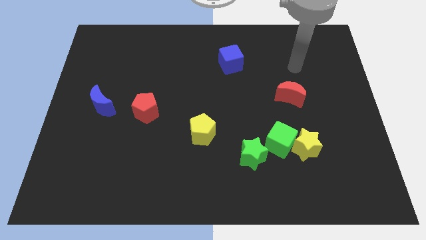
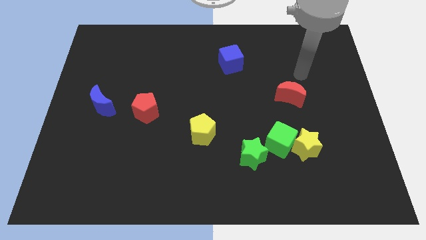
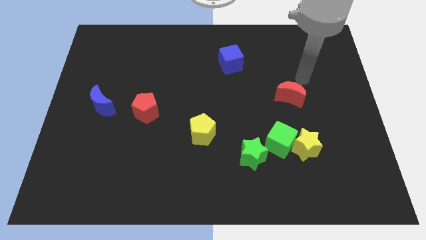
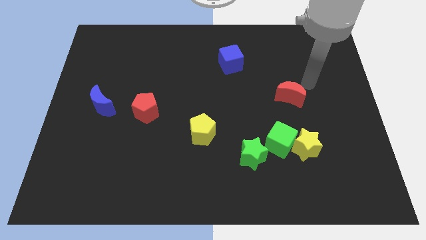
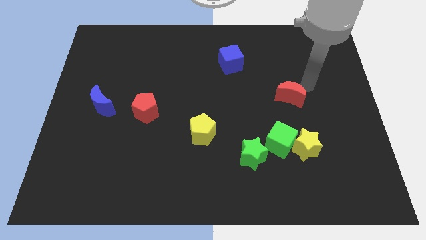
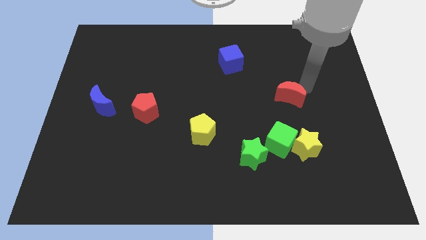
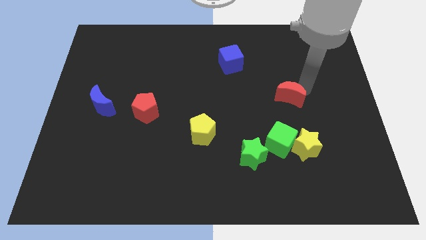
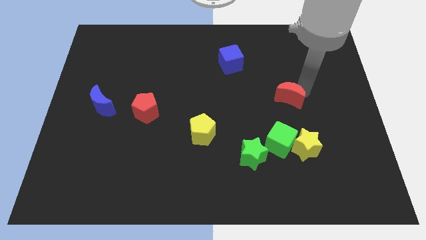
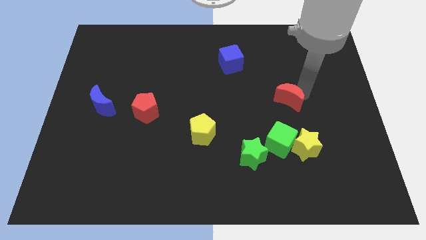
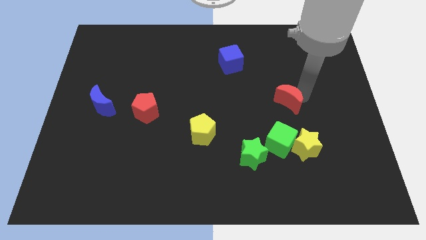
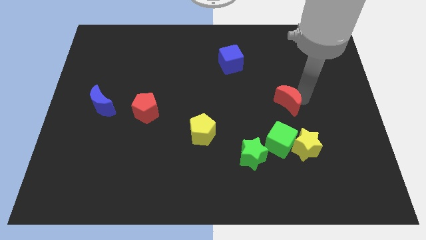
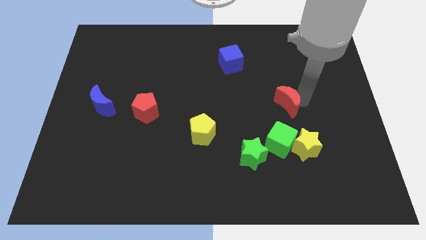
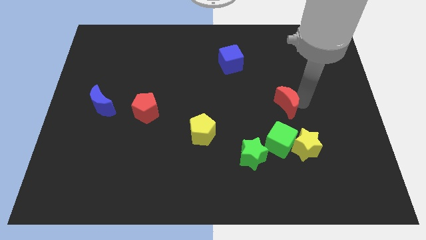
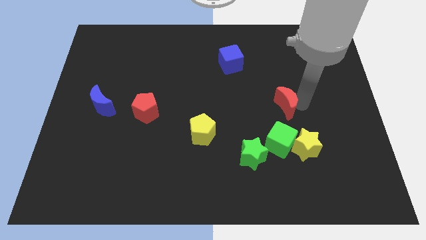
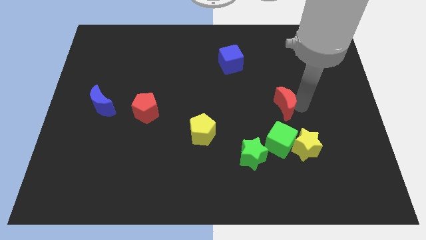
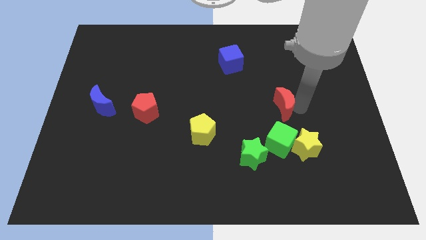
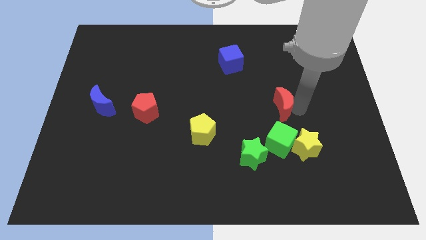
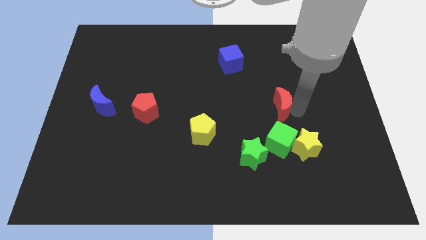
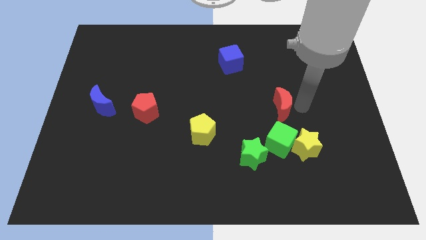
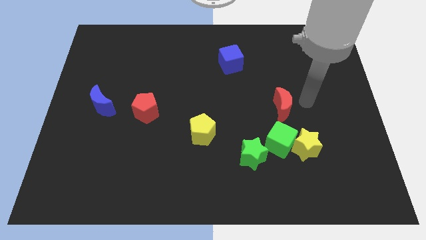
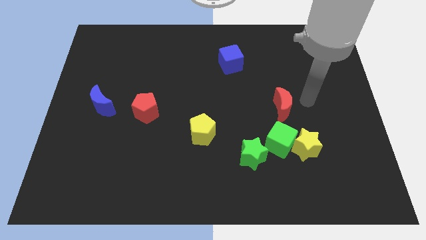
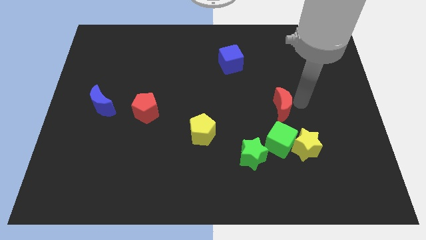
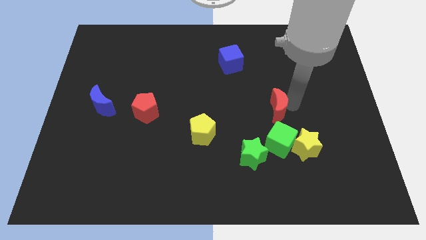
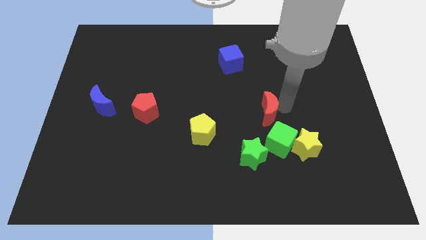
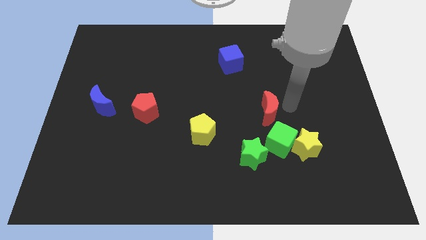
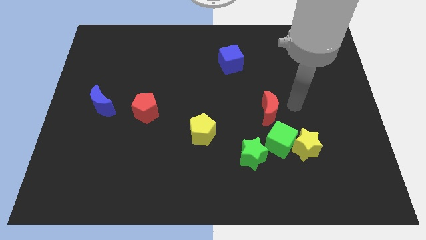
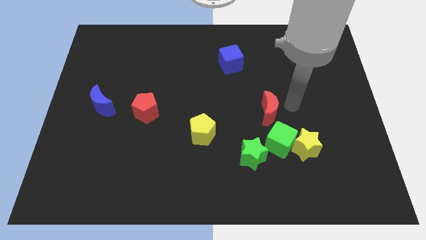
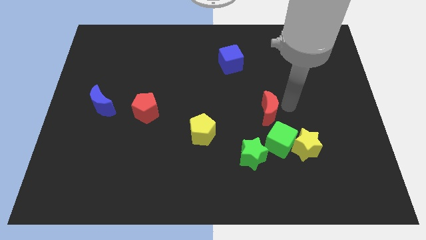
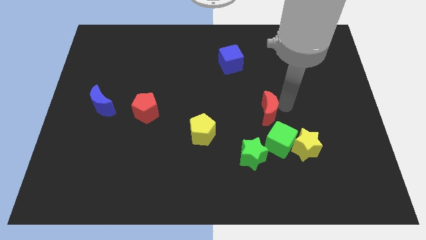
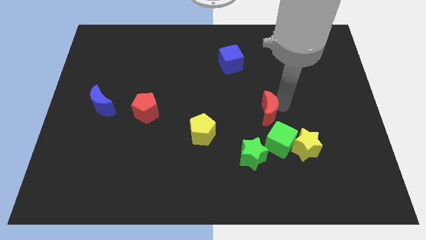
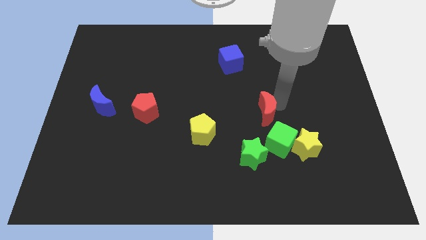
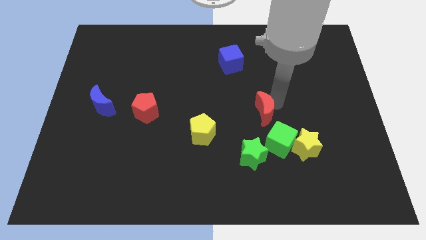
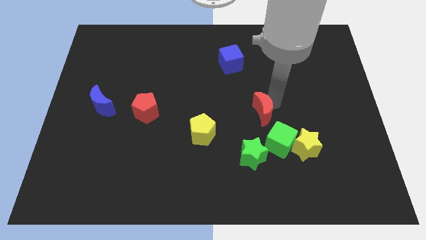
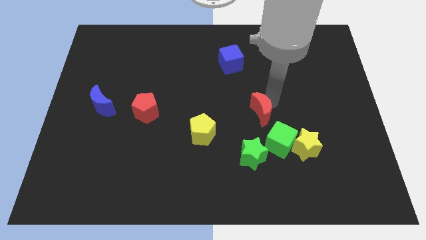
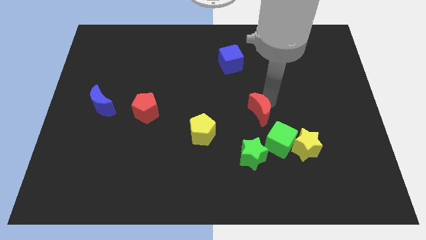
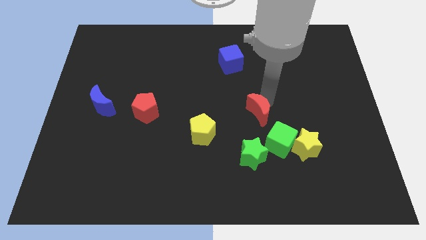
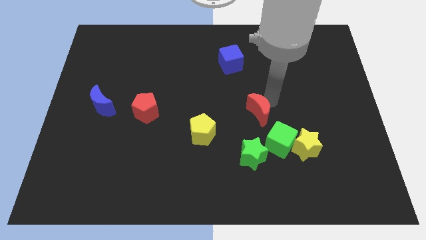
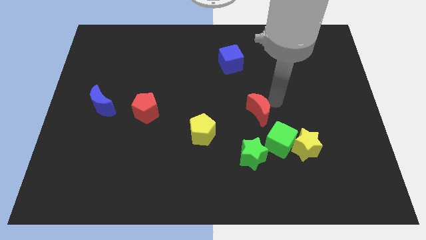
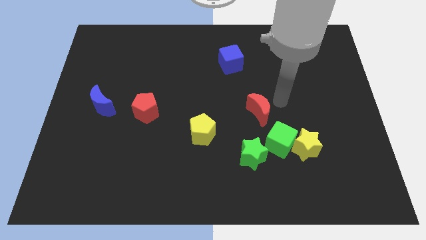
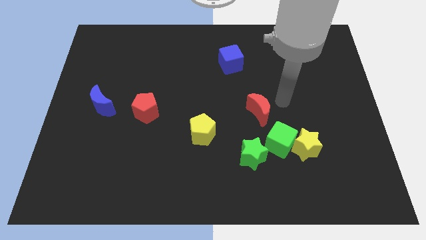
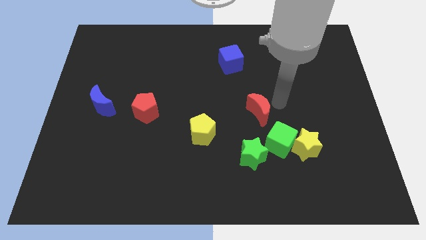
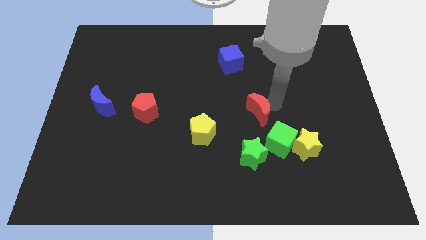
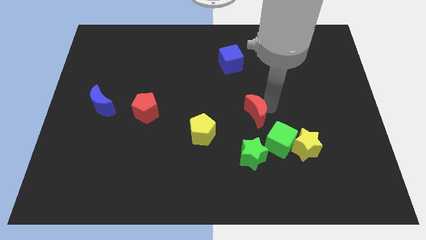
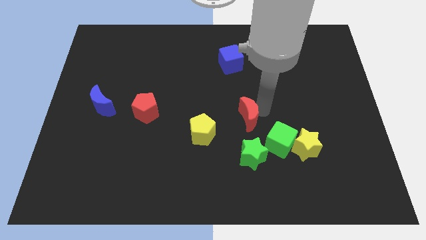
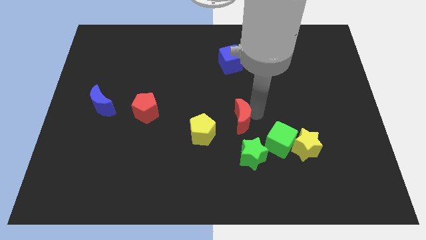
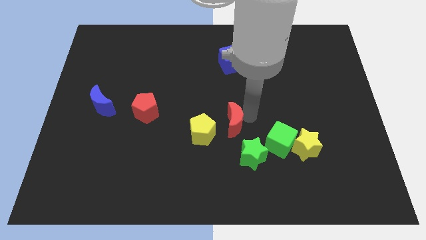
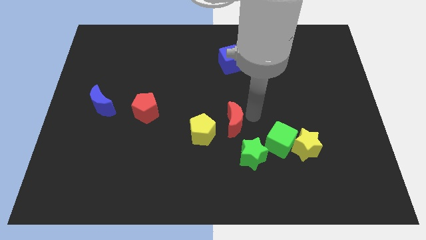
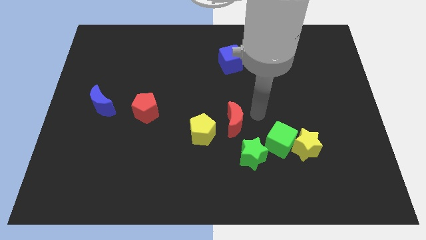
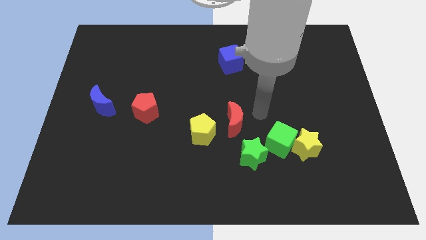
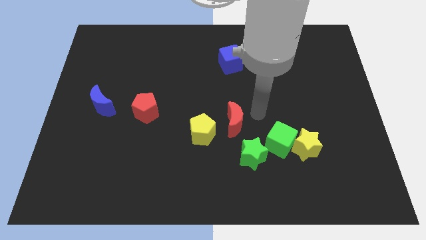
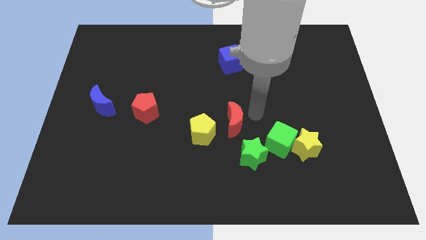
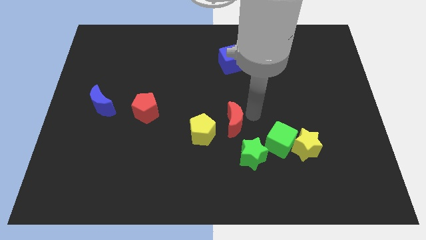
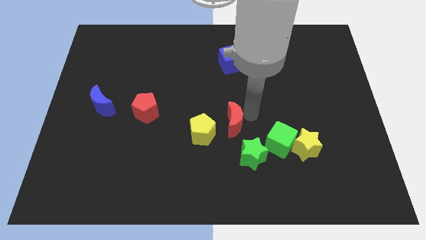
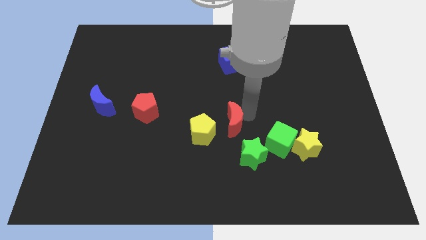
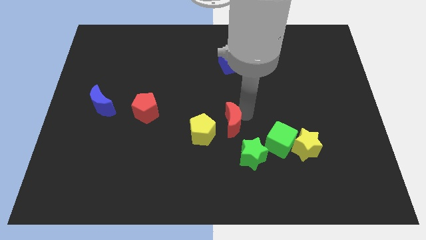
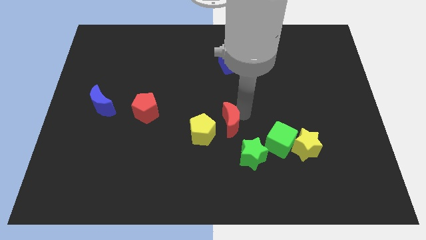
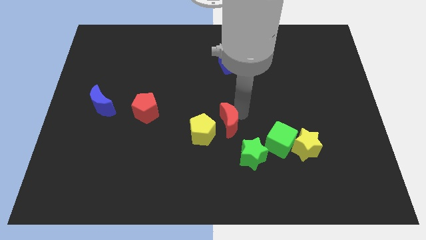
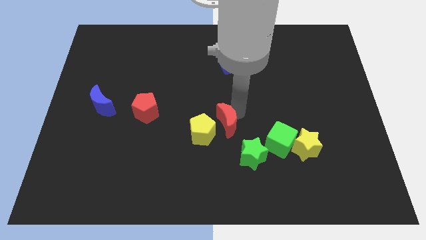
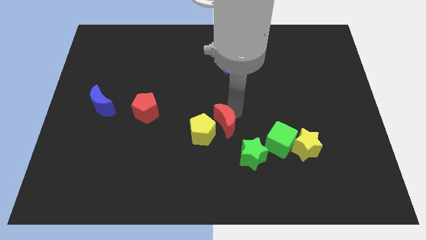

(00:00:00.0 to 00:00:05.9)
put the red moon towards the yellow pentagon

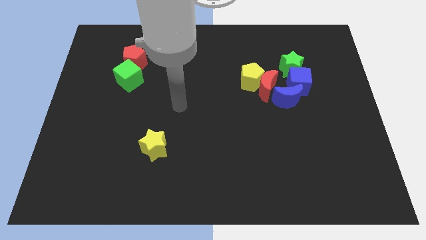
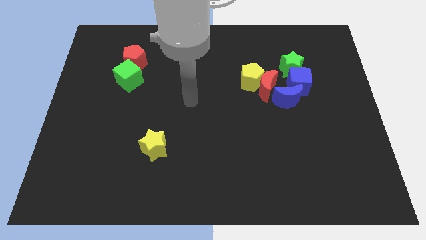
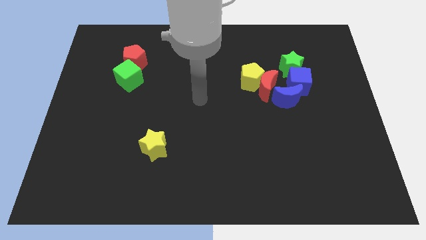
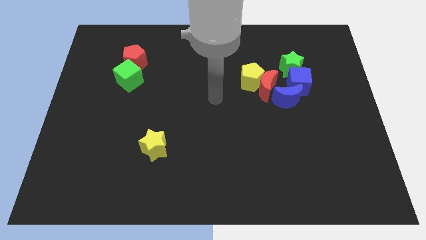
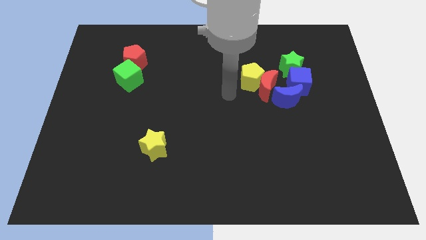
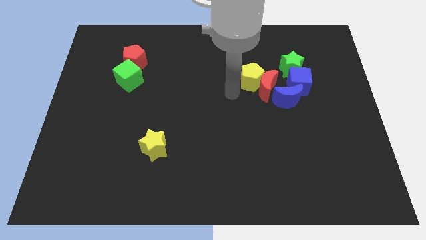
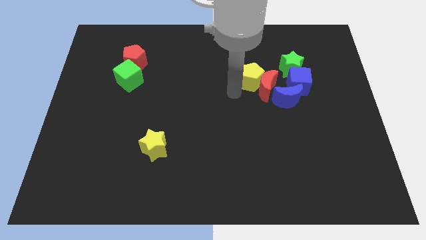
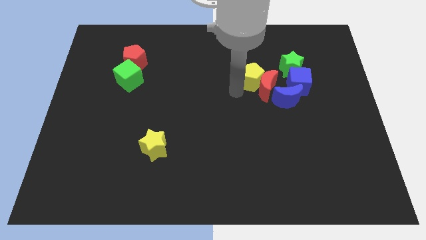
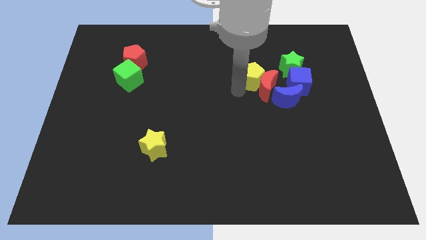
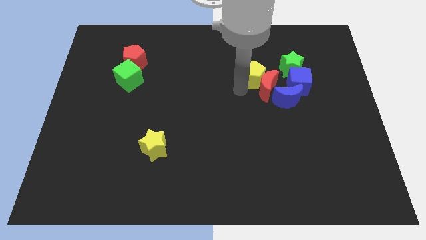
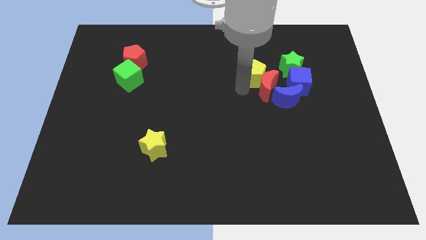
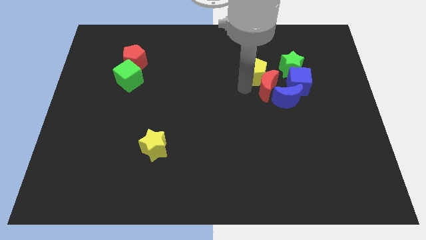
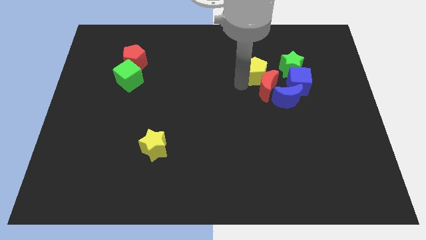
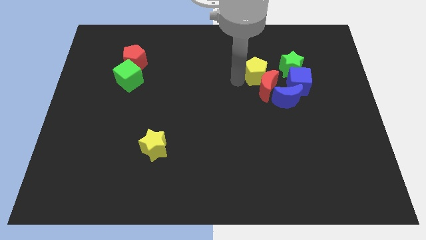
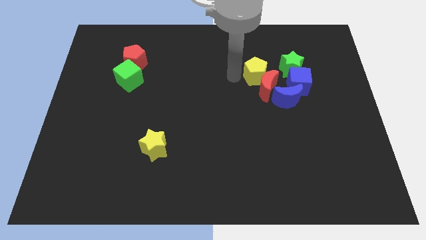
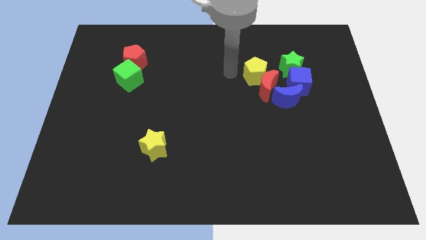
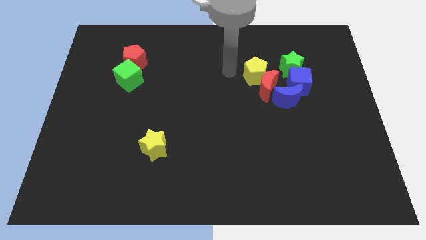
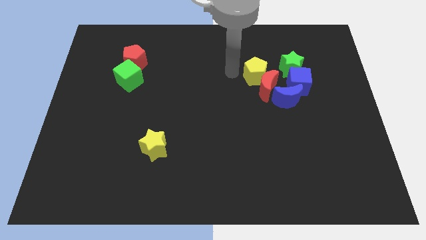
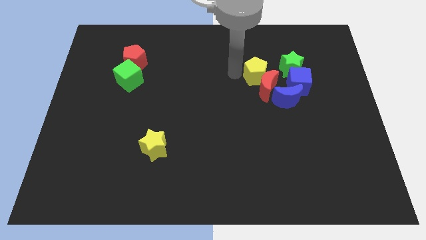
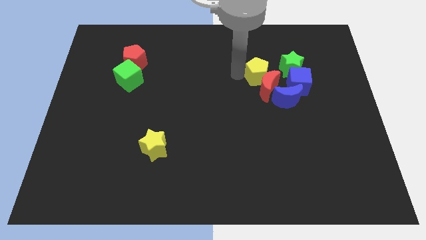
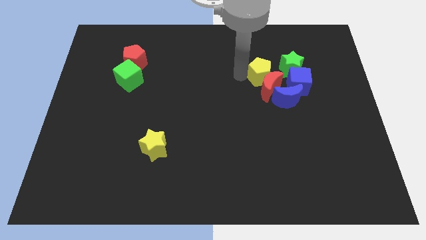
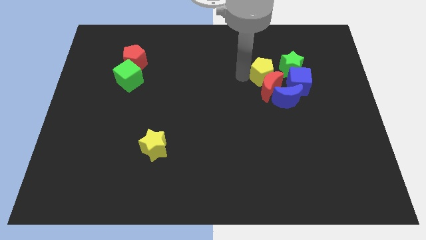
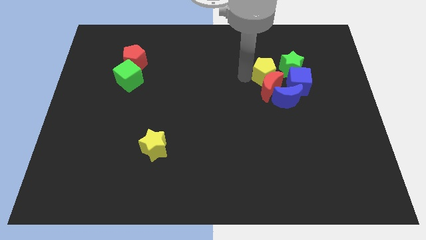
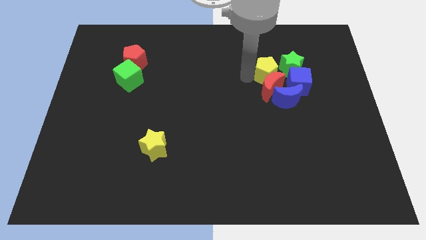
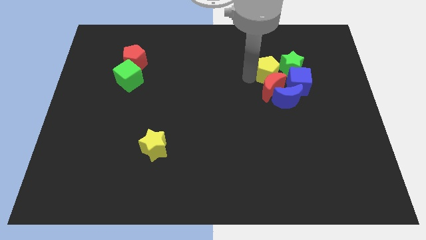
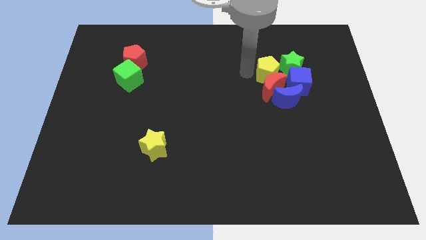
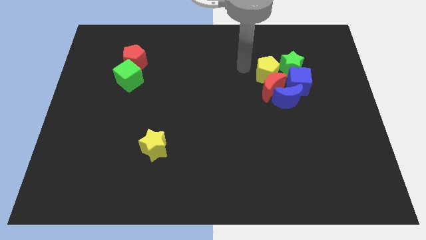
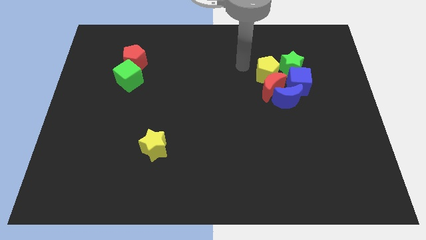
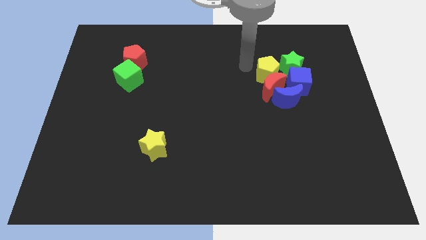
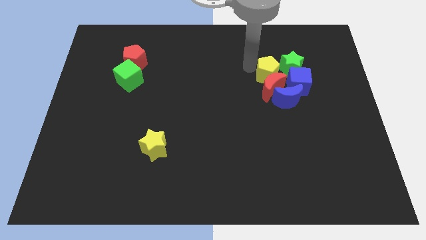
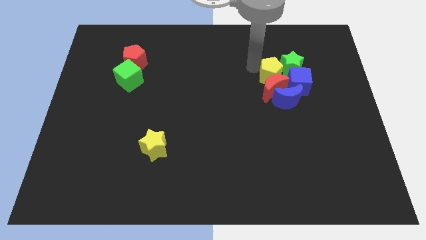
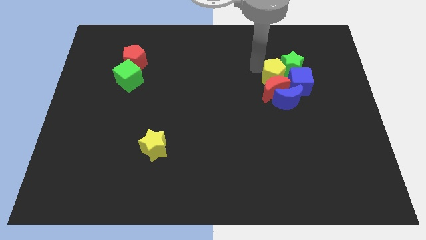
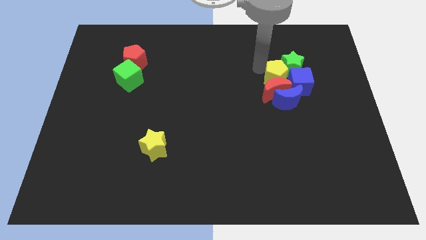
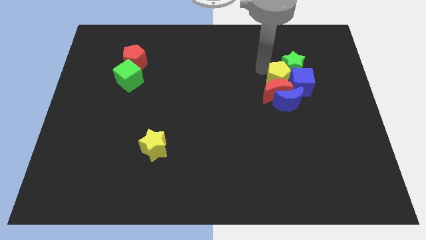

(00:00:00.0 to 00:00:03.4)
move the yellow pentagon towards the blue cube
